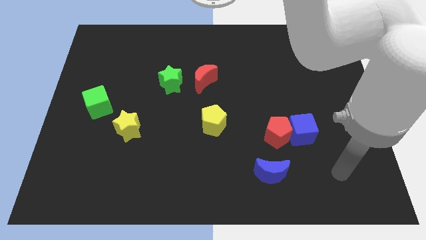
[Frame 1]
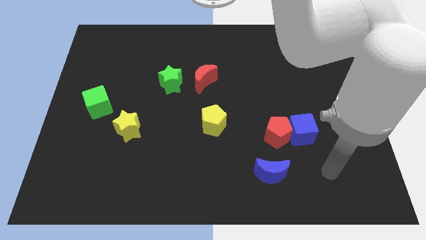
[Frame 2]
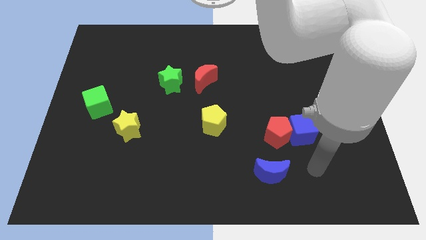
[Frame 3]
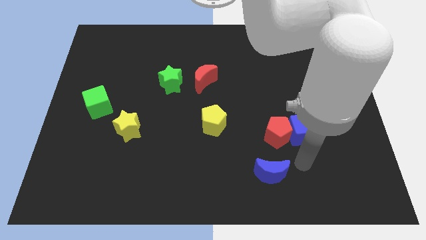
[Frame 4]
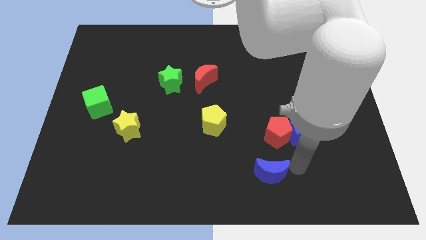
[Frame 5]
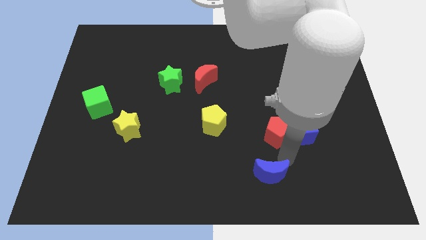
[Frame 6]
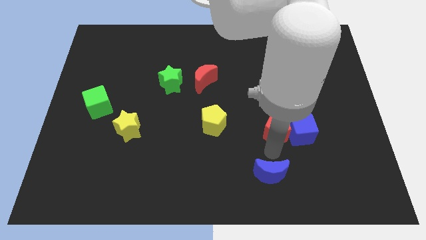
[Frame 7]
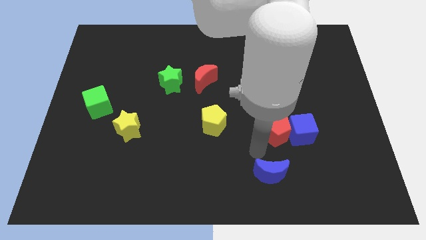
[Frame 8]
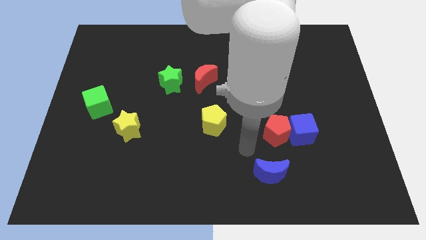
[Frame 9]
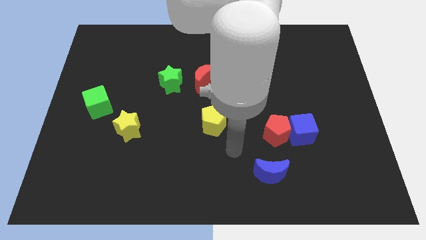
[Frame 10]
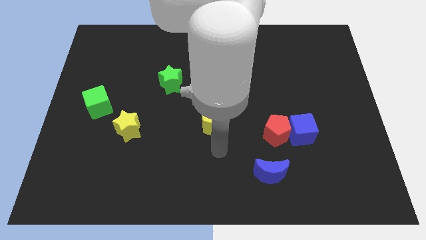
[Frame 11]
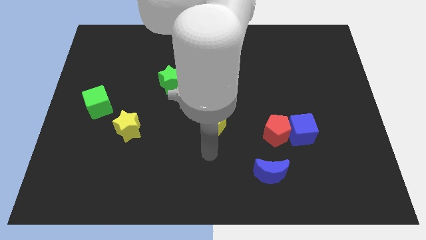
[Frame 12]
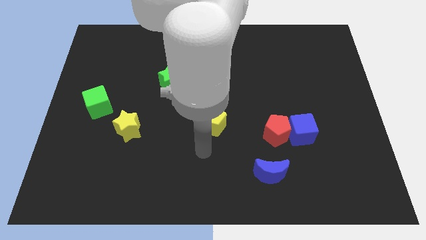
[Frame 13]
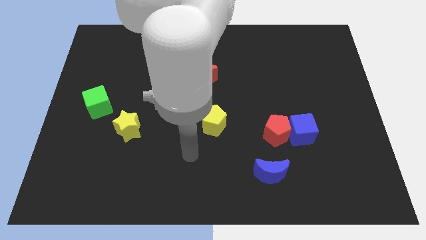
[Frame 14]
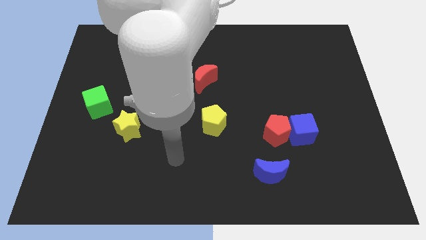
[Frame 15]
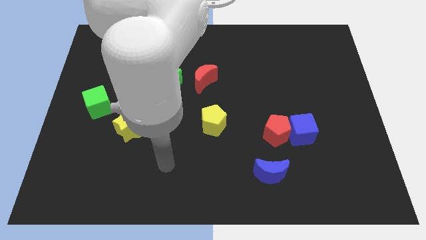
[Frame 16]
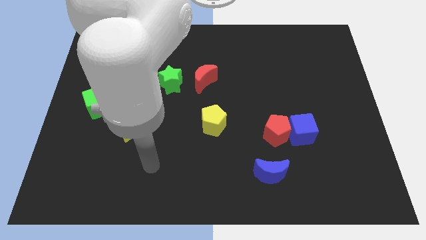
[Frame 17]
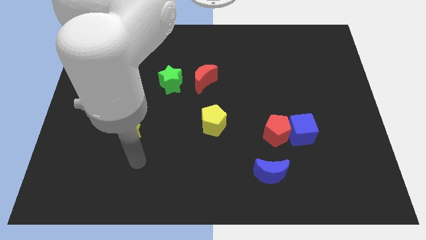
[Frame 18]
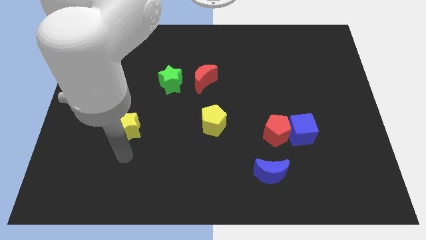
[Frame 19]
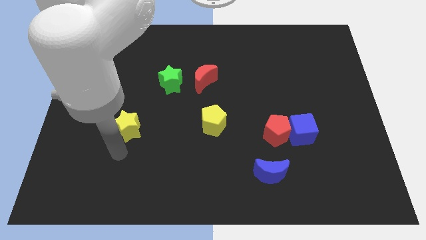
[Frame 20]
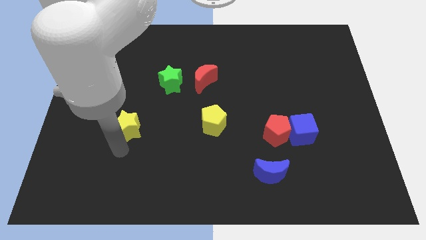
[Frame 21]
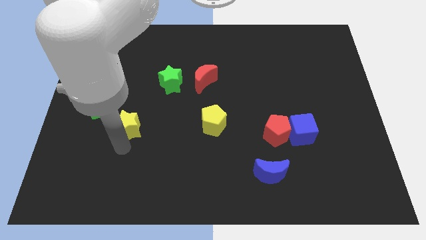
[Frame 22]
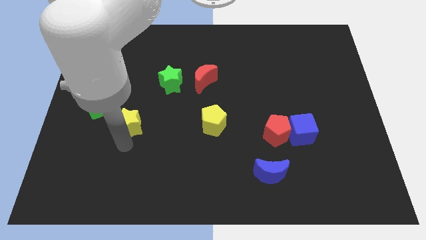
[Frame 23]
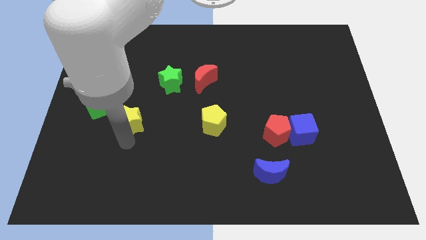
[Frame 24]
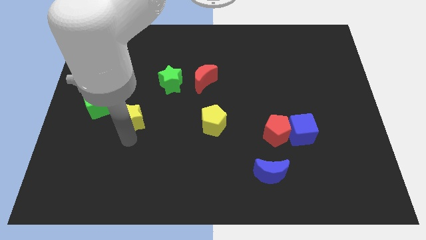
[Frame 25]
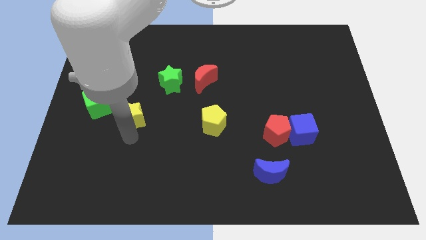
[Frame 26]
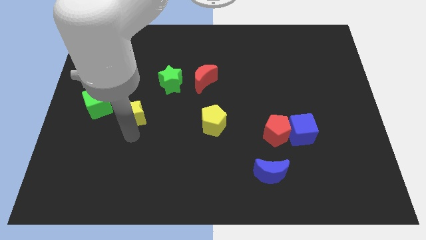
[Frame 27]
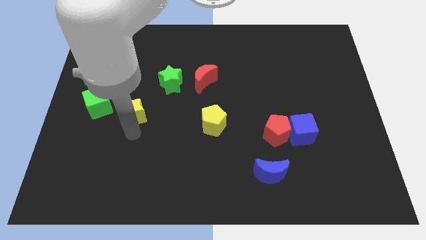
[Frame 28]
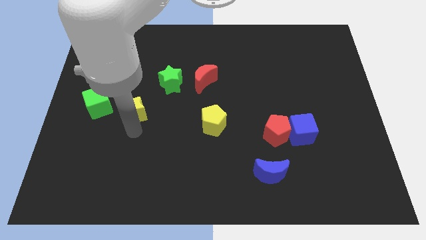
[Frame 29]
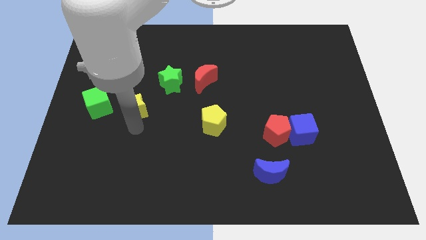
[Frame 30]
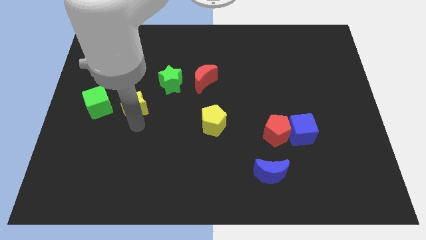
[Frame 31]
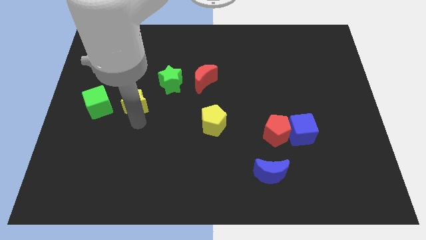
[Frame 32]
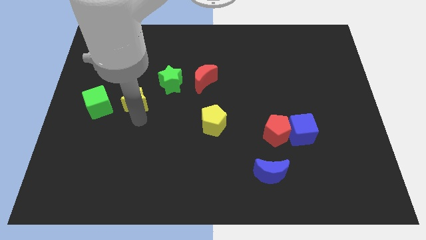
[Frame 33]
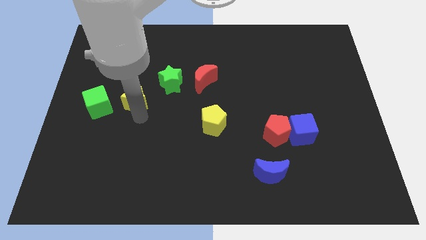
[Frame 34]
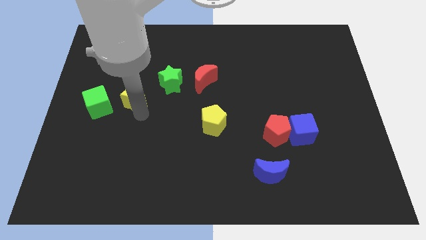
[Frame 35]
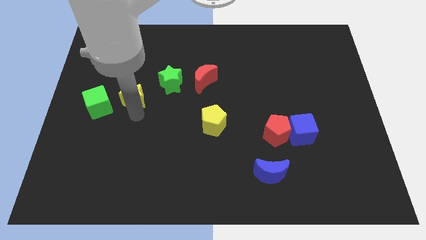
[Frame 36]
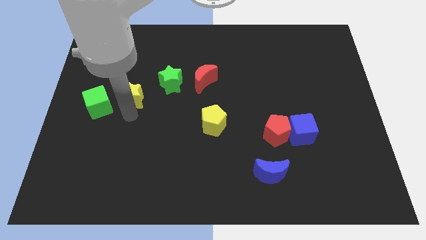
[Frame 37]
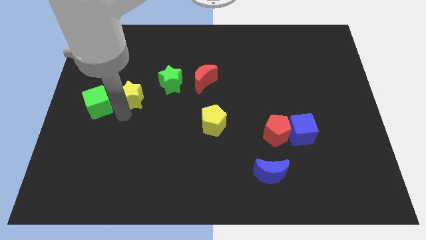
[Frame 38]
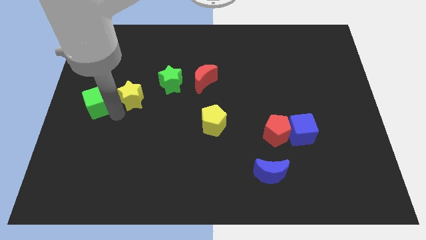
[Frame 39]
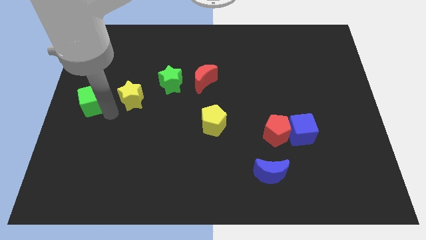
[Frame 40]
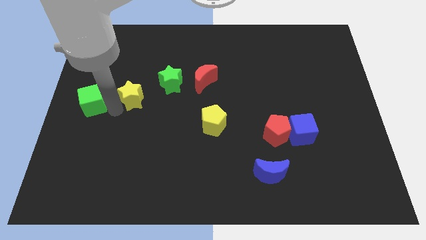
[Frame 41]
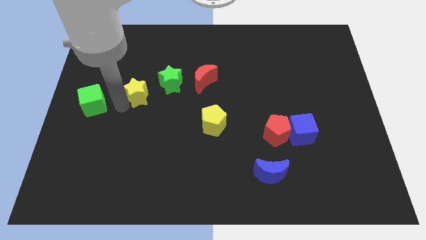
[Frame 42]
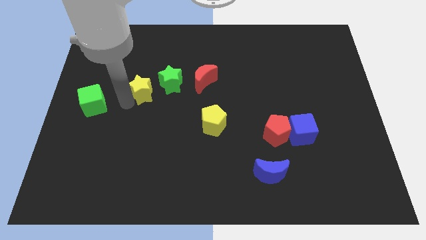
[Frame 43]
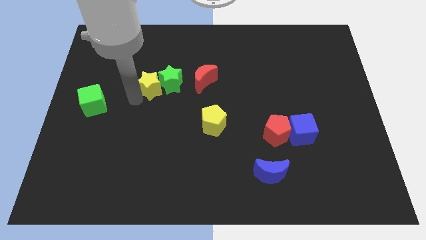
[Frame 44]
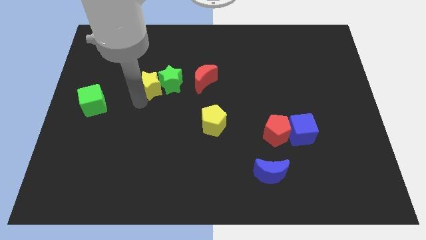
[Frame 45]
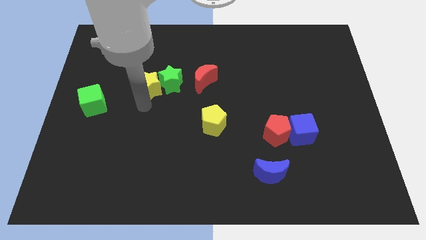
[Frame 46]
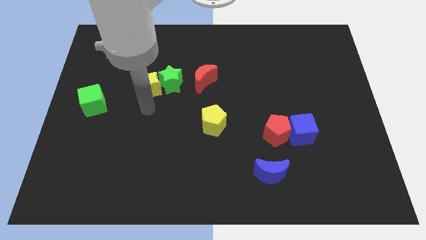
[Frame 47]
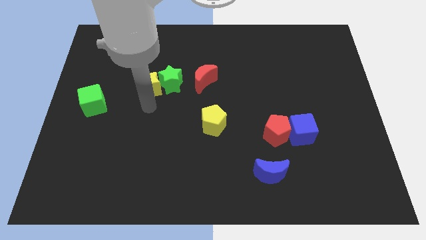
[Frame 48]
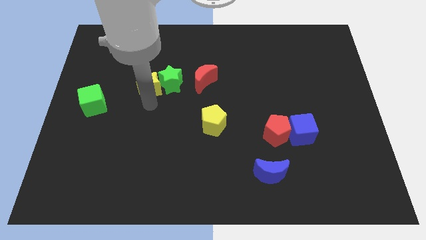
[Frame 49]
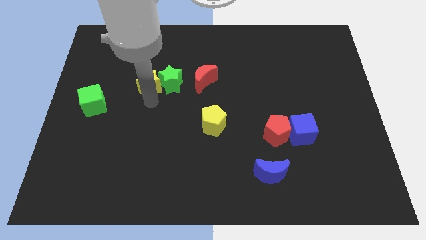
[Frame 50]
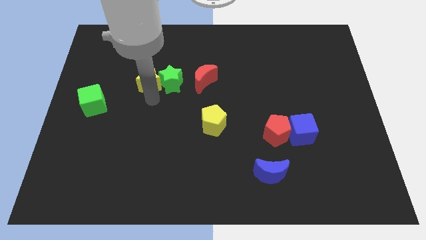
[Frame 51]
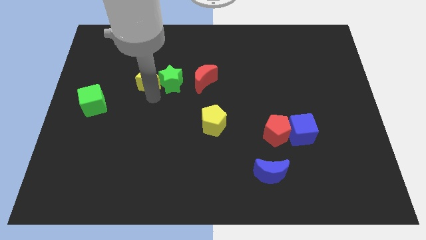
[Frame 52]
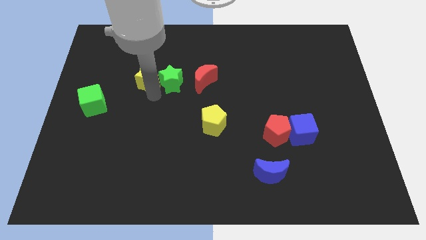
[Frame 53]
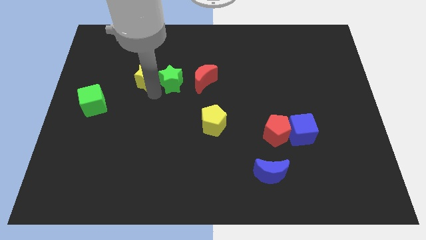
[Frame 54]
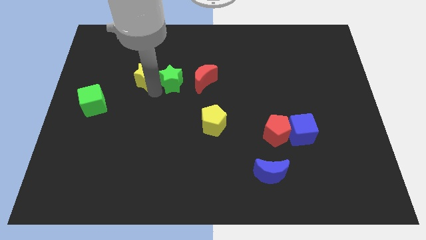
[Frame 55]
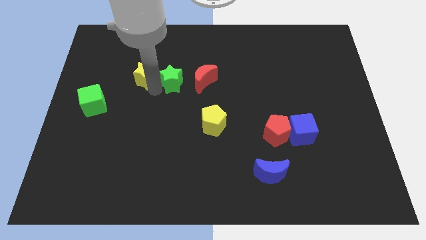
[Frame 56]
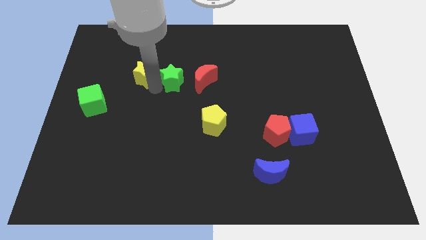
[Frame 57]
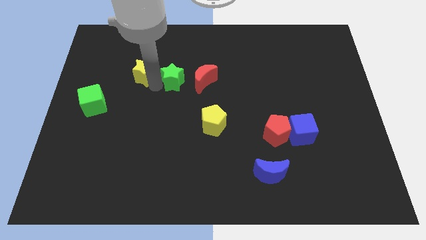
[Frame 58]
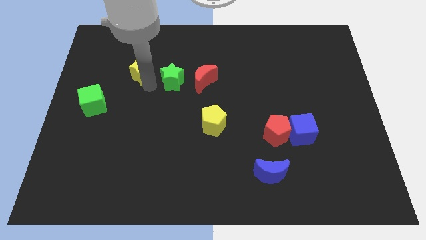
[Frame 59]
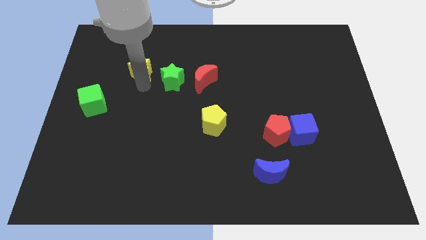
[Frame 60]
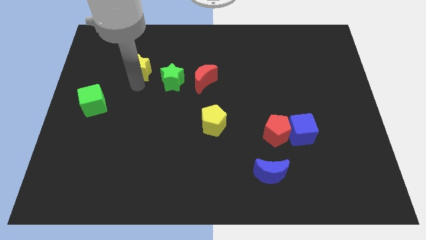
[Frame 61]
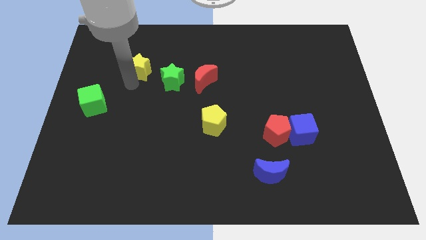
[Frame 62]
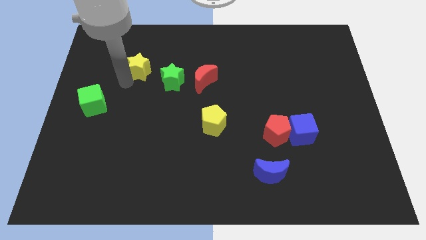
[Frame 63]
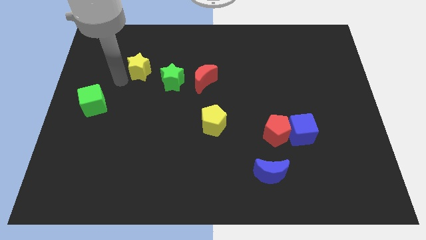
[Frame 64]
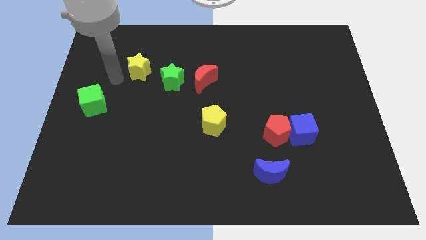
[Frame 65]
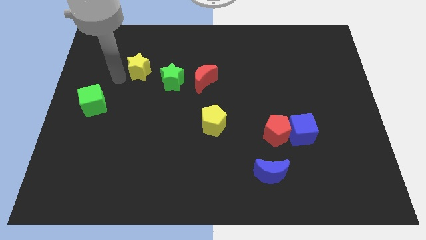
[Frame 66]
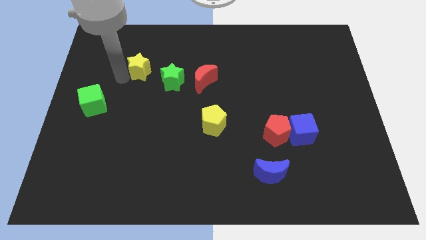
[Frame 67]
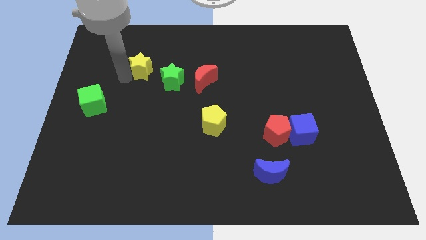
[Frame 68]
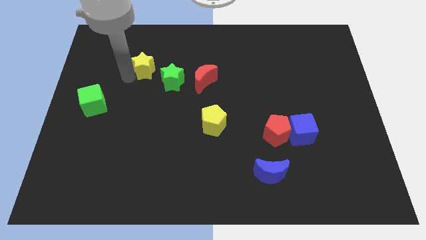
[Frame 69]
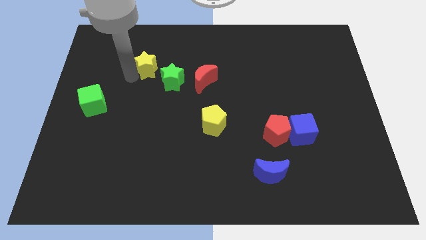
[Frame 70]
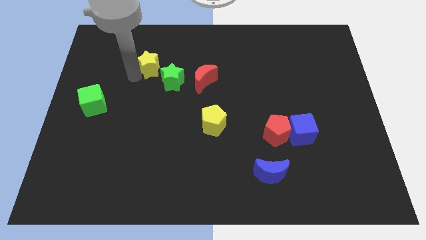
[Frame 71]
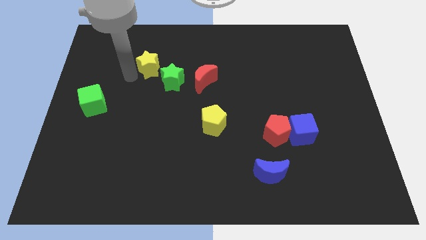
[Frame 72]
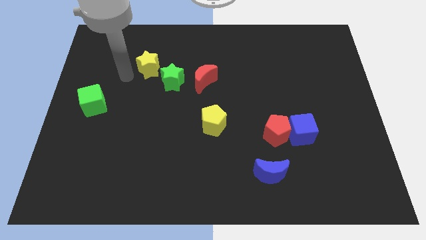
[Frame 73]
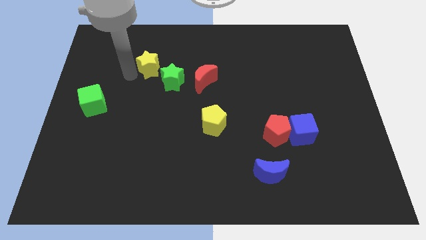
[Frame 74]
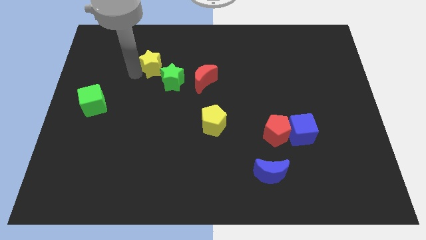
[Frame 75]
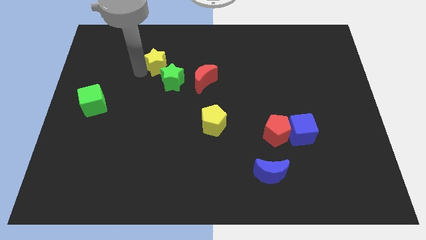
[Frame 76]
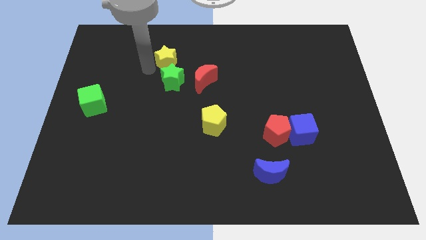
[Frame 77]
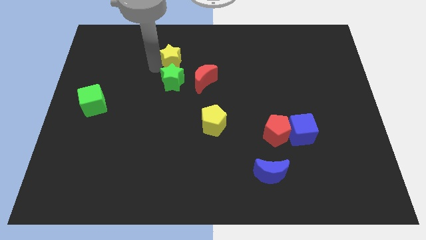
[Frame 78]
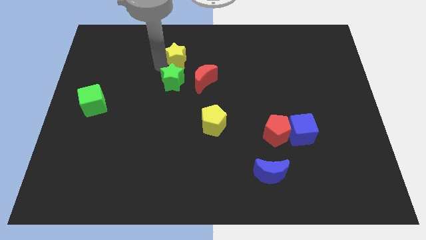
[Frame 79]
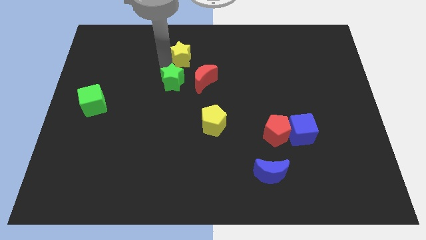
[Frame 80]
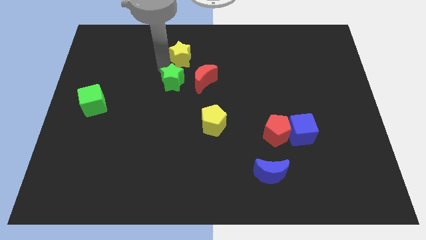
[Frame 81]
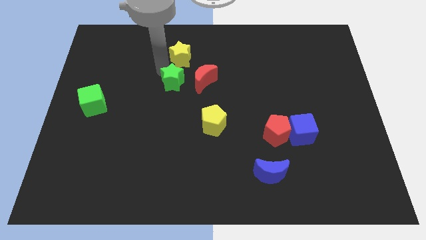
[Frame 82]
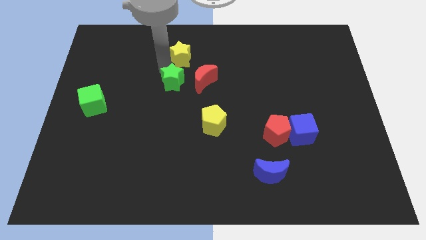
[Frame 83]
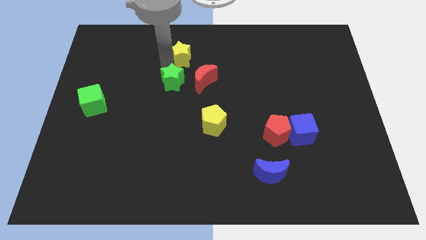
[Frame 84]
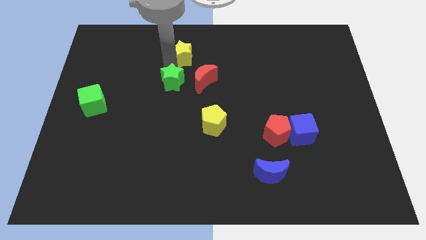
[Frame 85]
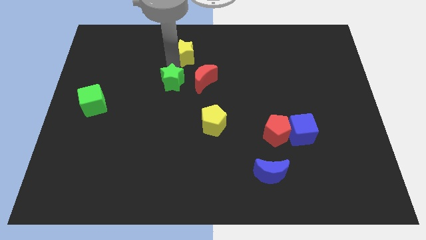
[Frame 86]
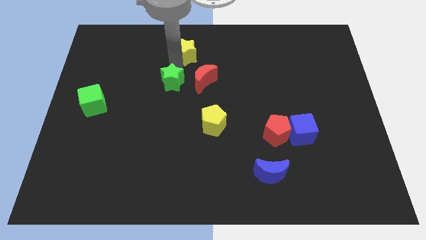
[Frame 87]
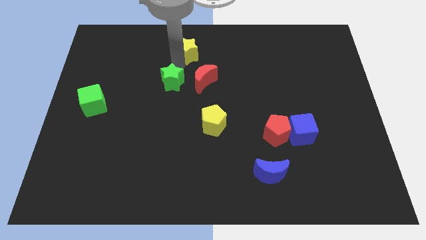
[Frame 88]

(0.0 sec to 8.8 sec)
push the yellow star to the towards your base
